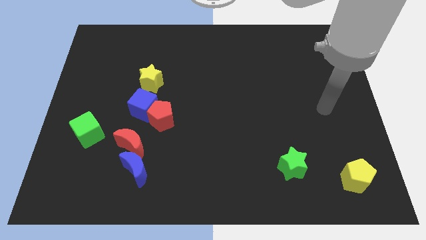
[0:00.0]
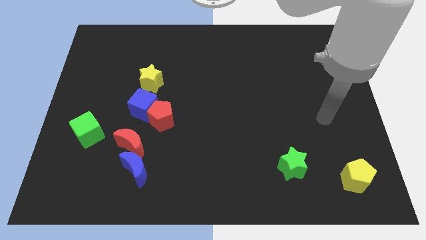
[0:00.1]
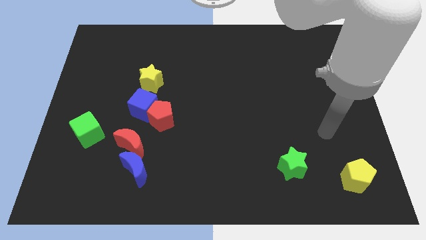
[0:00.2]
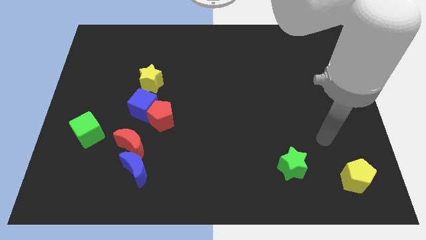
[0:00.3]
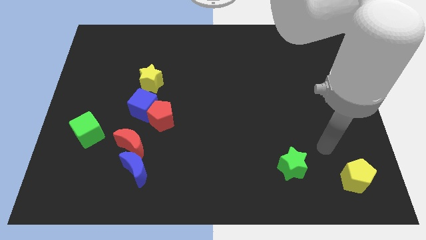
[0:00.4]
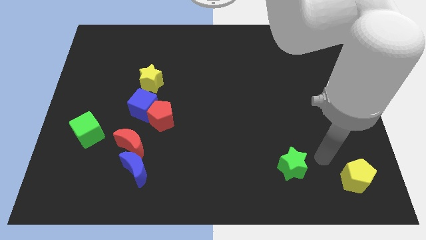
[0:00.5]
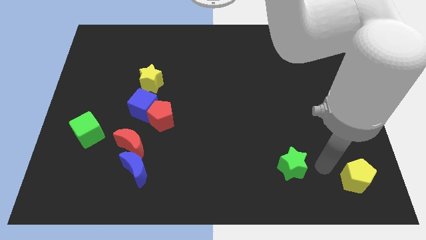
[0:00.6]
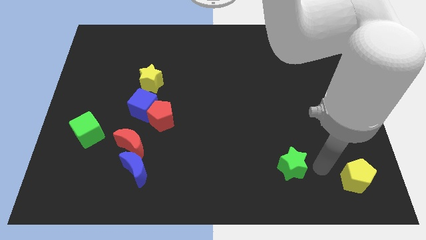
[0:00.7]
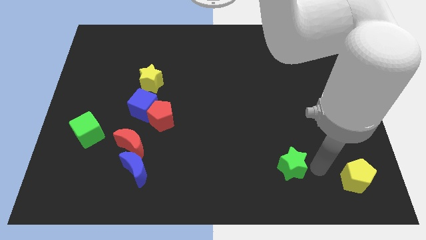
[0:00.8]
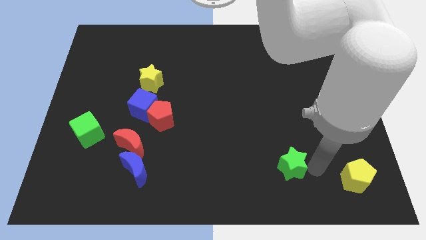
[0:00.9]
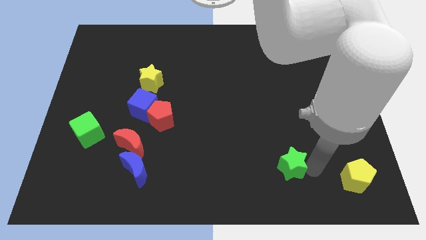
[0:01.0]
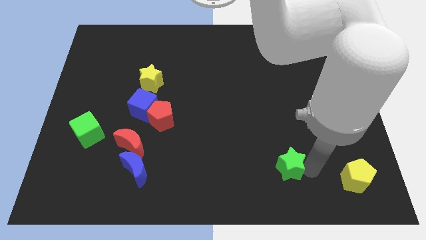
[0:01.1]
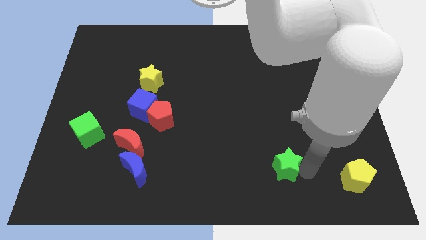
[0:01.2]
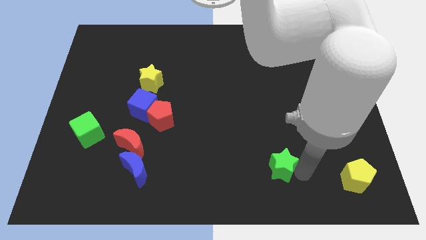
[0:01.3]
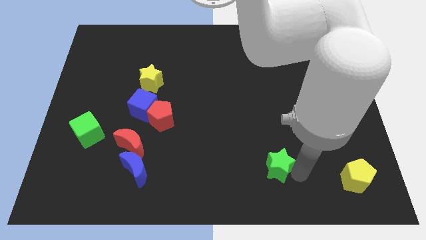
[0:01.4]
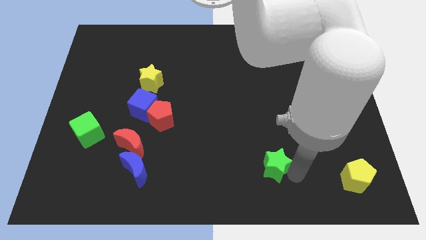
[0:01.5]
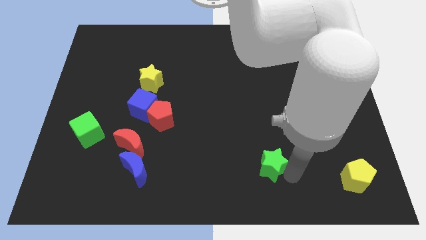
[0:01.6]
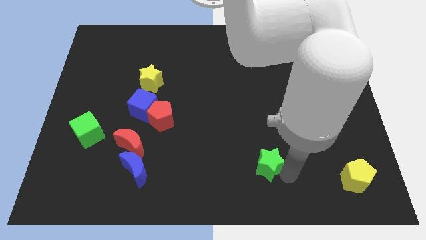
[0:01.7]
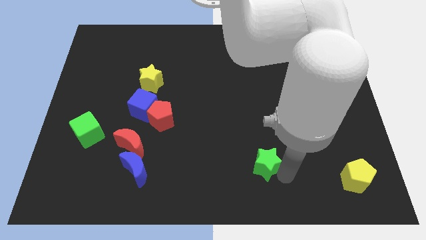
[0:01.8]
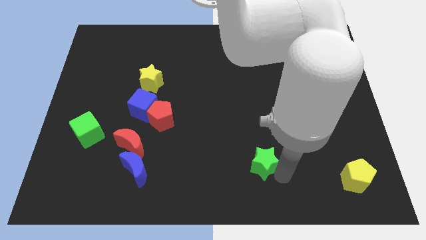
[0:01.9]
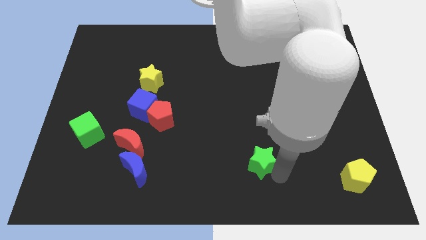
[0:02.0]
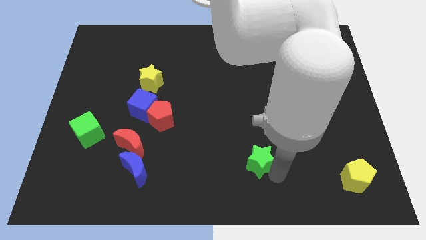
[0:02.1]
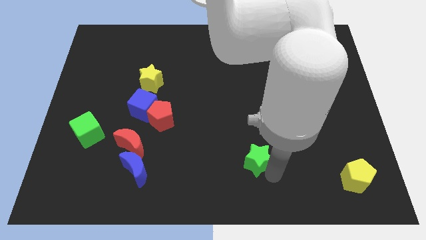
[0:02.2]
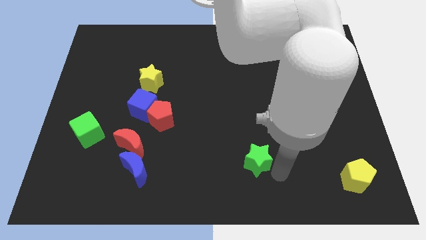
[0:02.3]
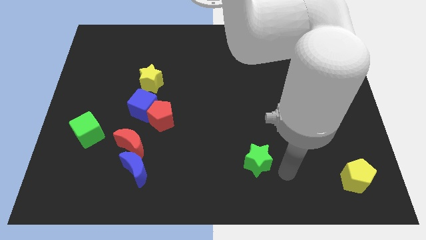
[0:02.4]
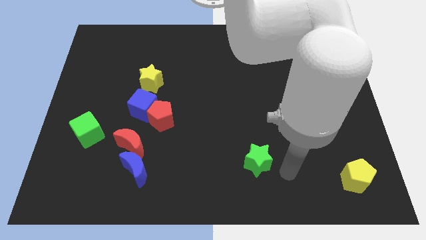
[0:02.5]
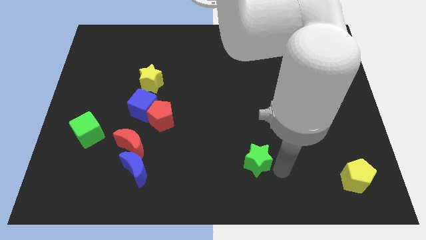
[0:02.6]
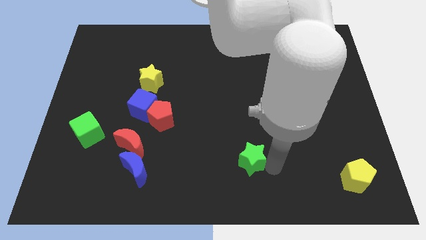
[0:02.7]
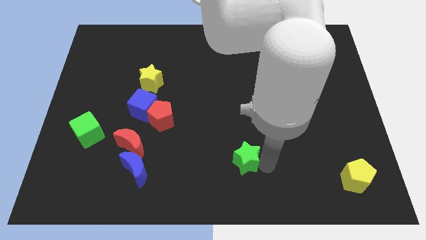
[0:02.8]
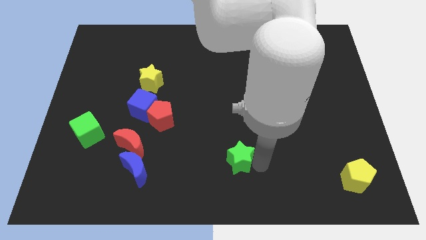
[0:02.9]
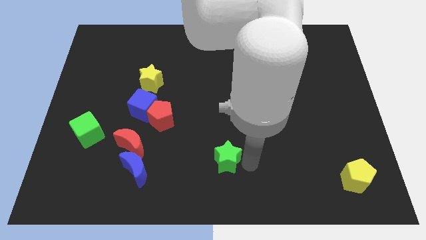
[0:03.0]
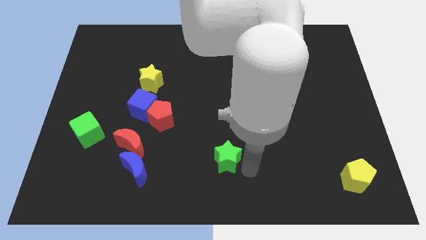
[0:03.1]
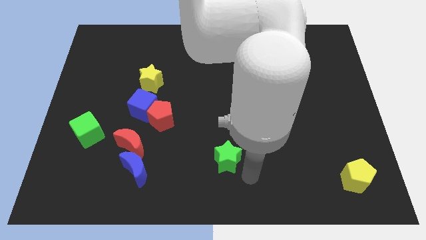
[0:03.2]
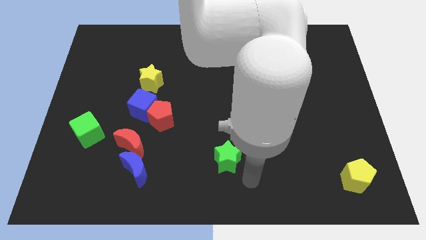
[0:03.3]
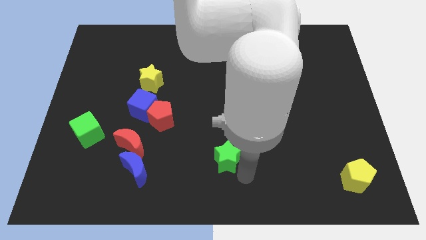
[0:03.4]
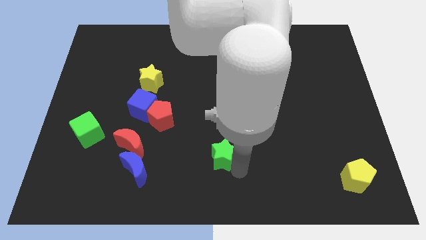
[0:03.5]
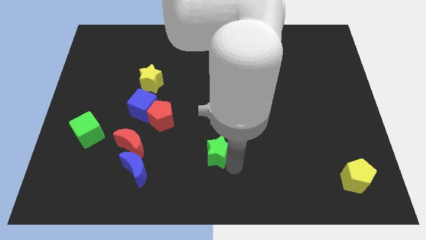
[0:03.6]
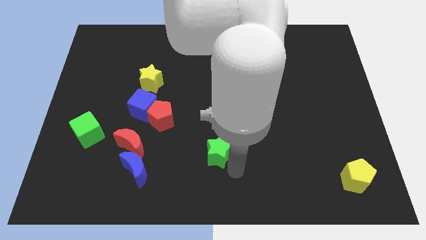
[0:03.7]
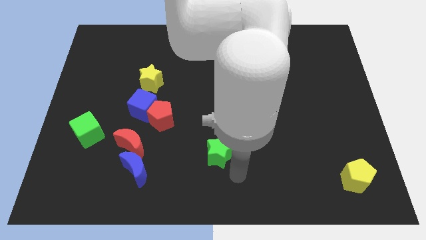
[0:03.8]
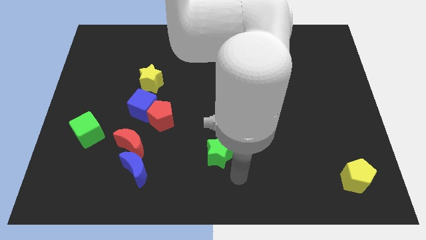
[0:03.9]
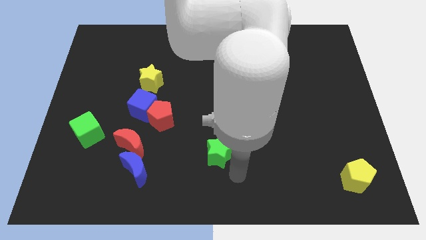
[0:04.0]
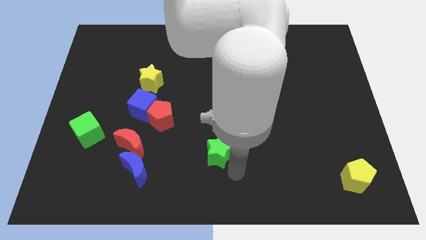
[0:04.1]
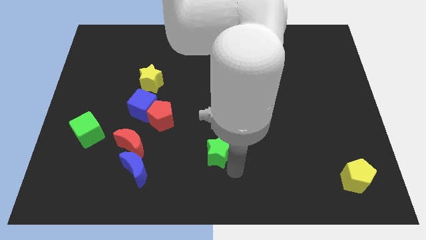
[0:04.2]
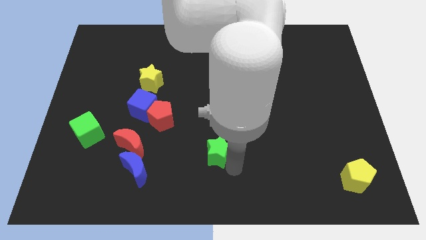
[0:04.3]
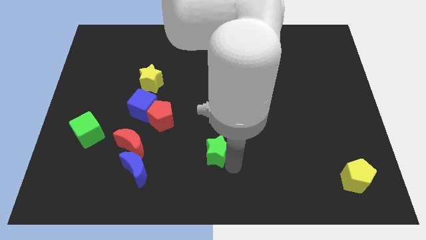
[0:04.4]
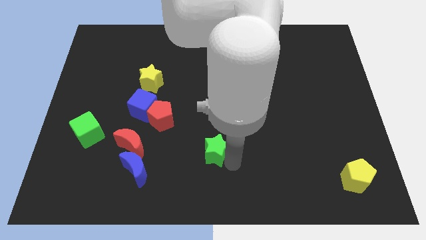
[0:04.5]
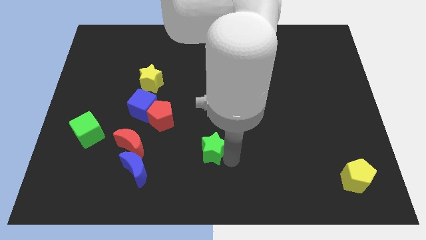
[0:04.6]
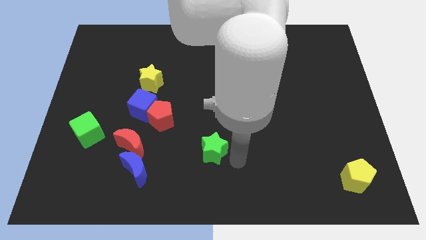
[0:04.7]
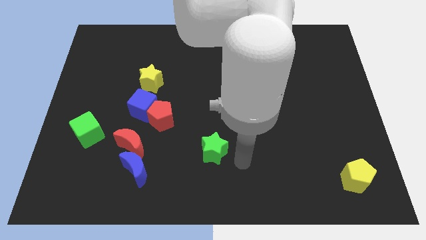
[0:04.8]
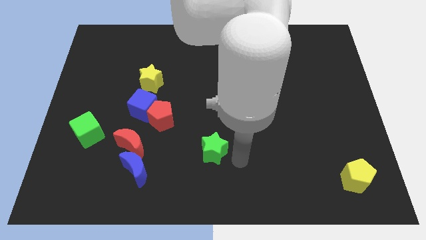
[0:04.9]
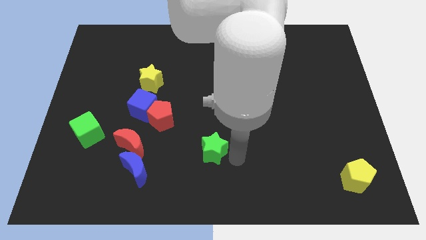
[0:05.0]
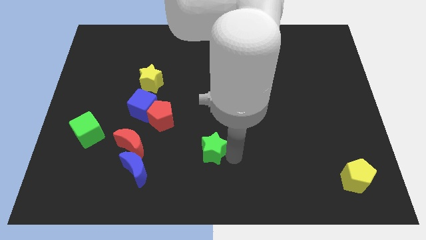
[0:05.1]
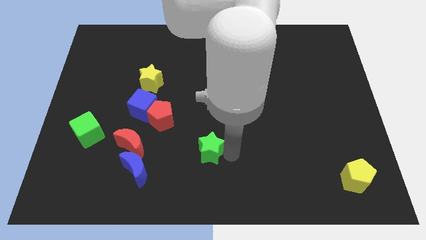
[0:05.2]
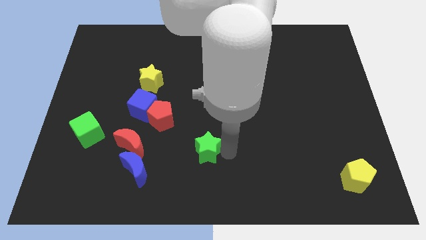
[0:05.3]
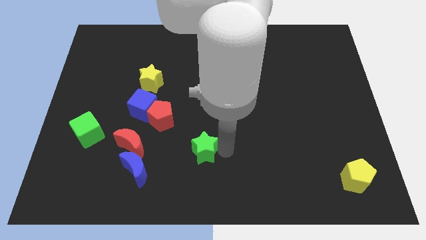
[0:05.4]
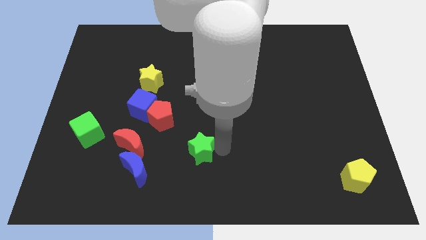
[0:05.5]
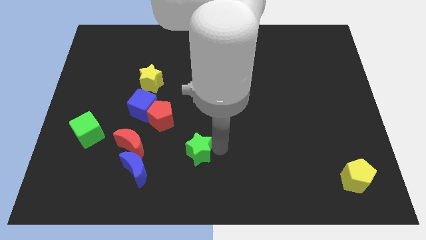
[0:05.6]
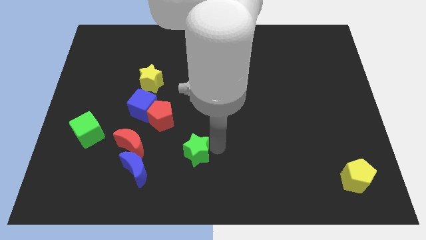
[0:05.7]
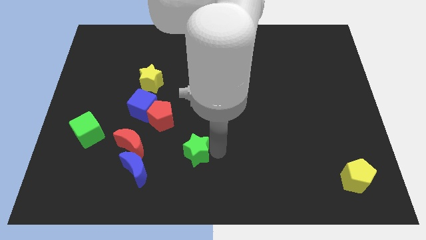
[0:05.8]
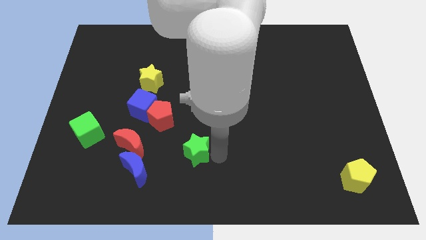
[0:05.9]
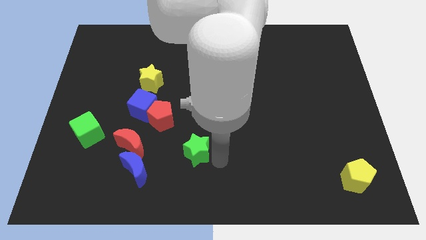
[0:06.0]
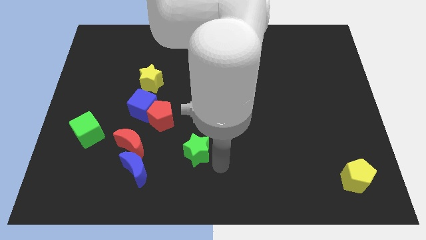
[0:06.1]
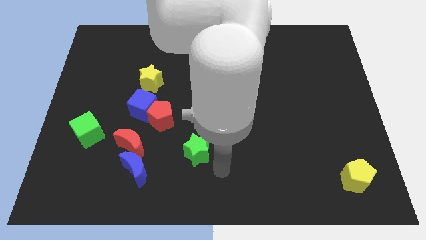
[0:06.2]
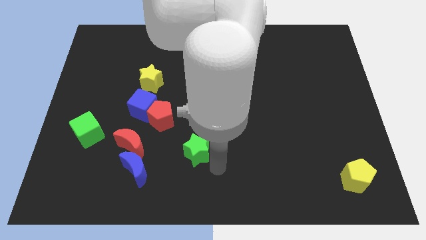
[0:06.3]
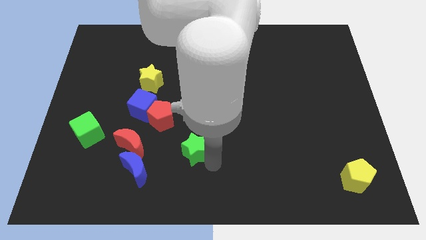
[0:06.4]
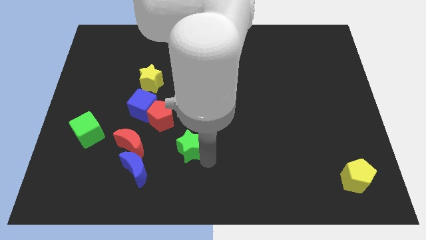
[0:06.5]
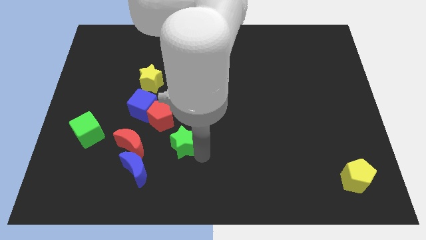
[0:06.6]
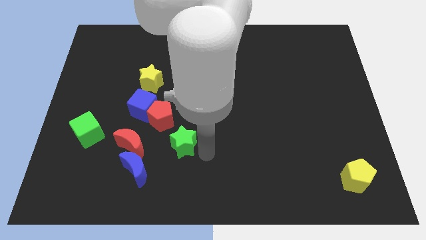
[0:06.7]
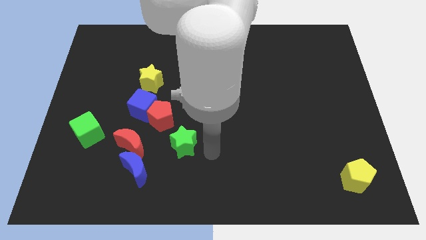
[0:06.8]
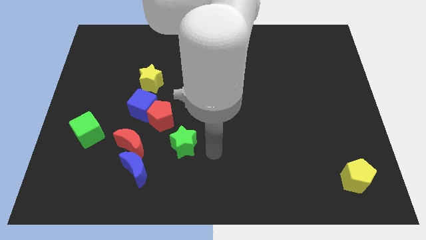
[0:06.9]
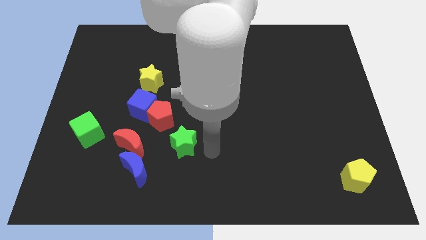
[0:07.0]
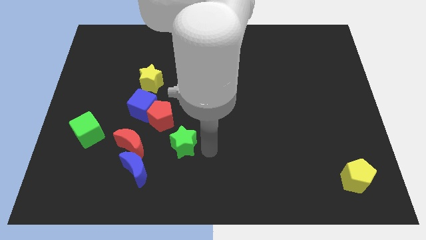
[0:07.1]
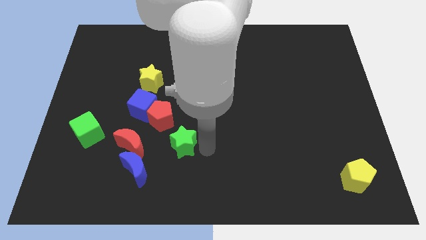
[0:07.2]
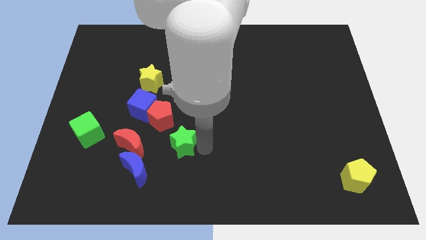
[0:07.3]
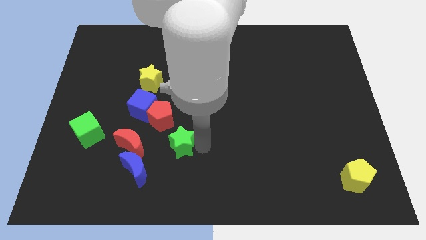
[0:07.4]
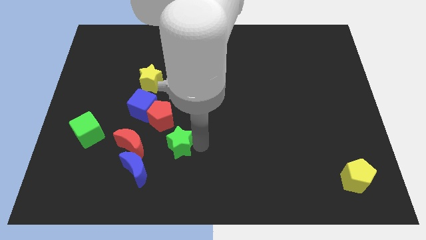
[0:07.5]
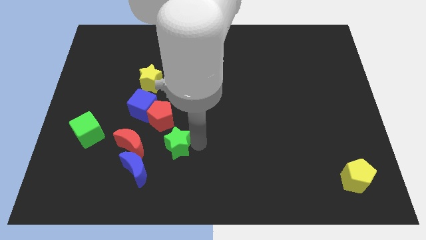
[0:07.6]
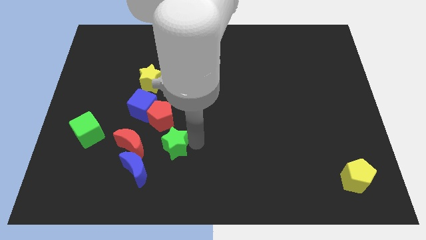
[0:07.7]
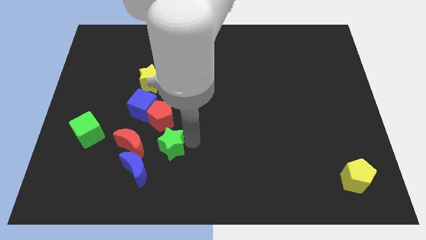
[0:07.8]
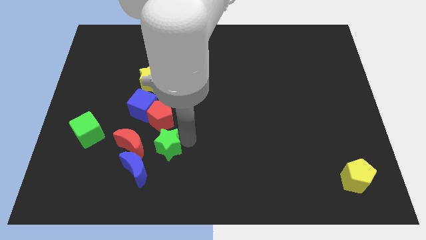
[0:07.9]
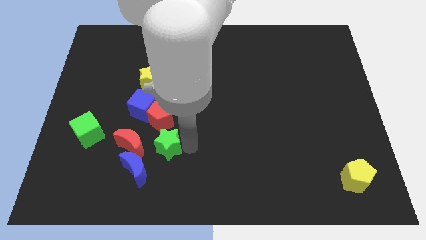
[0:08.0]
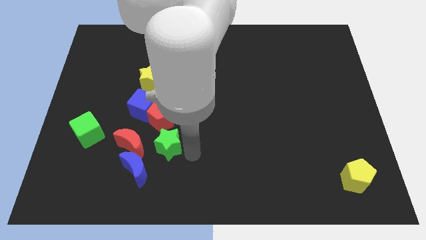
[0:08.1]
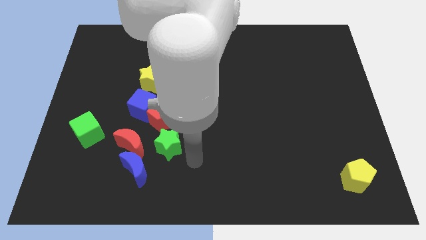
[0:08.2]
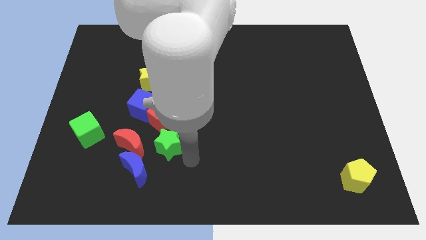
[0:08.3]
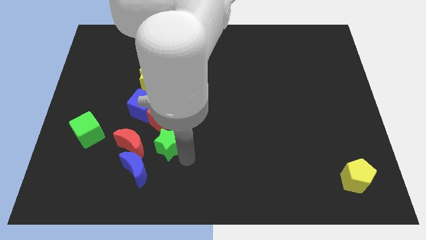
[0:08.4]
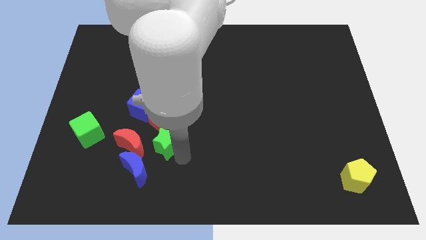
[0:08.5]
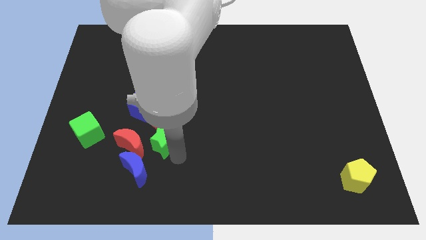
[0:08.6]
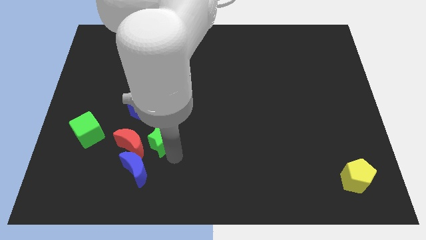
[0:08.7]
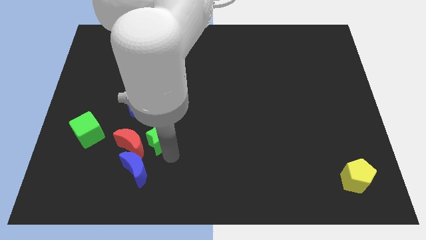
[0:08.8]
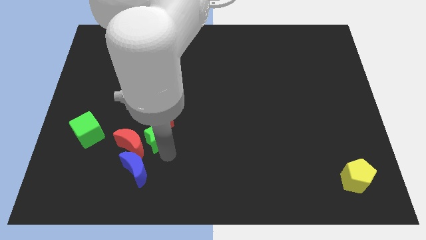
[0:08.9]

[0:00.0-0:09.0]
push the green star close to the red pentagon
